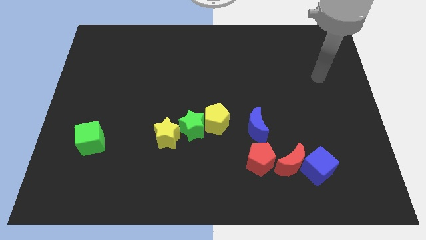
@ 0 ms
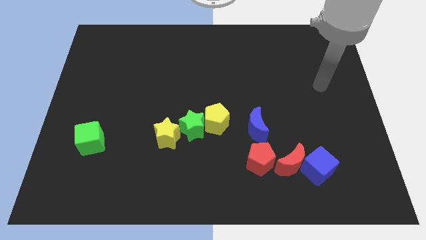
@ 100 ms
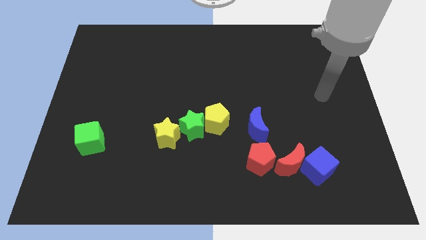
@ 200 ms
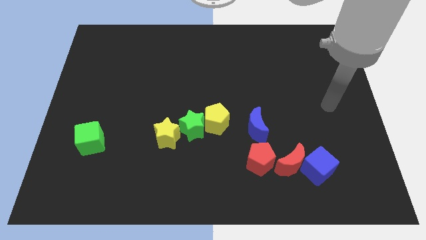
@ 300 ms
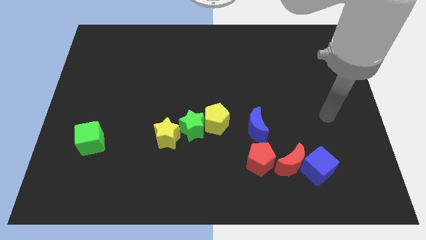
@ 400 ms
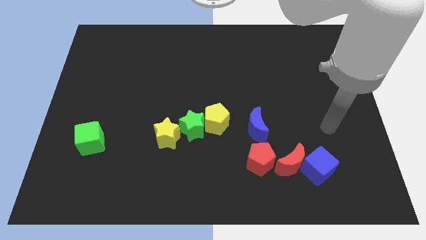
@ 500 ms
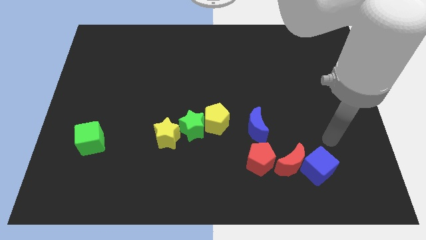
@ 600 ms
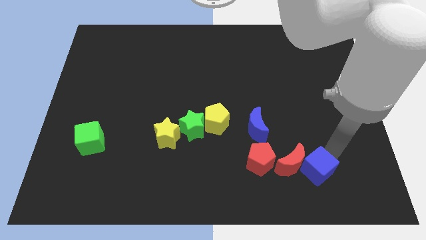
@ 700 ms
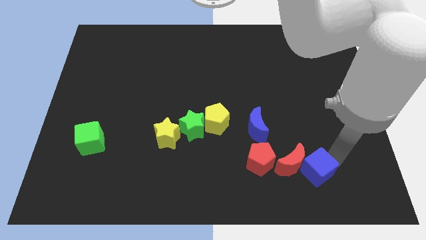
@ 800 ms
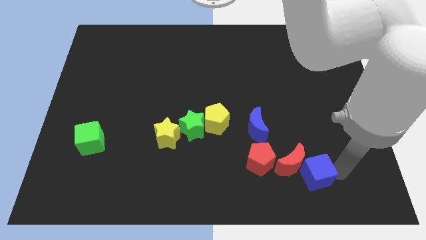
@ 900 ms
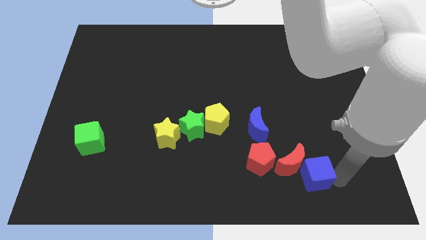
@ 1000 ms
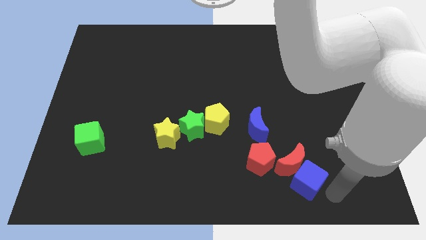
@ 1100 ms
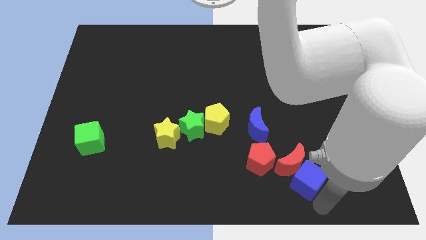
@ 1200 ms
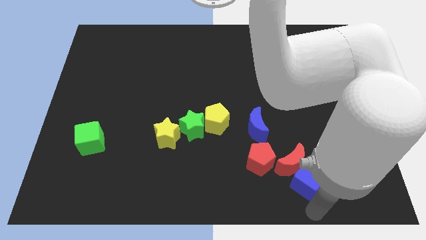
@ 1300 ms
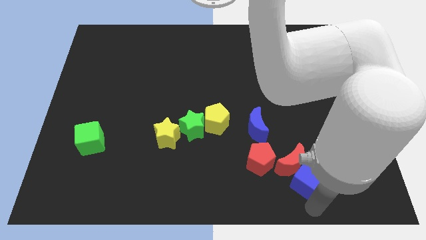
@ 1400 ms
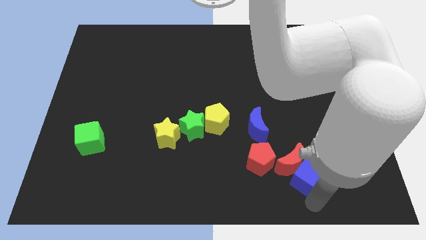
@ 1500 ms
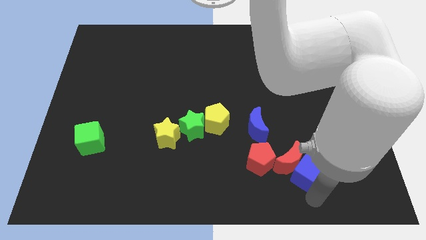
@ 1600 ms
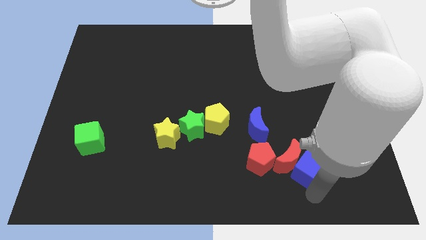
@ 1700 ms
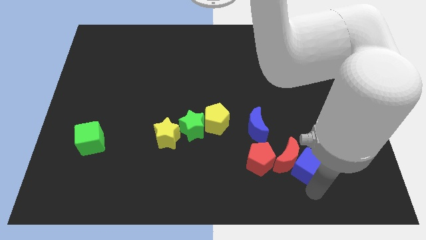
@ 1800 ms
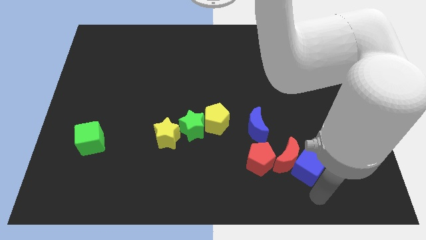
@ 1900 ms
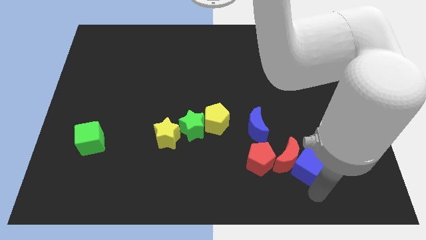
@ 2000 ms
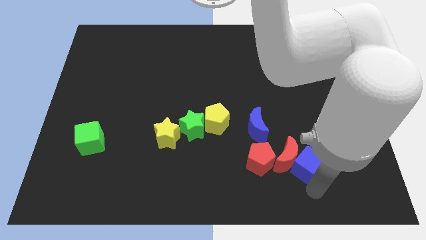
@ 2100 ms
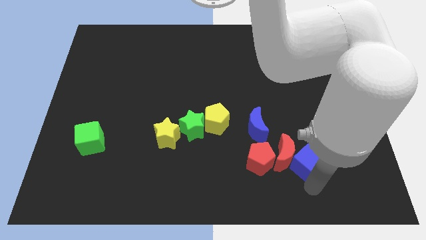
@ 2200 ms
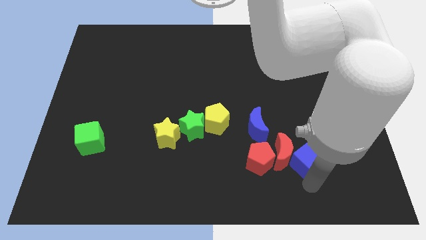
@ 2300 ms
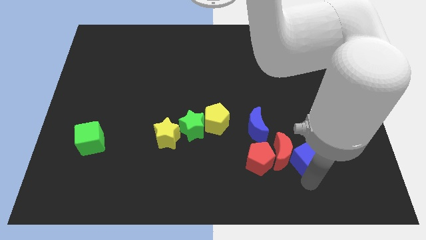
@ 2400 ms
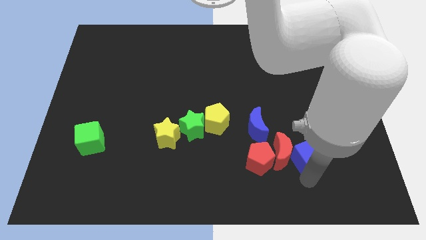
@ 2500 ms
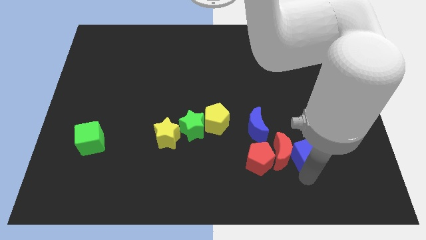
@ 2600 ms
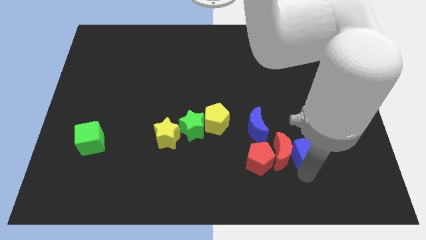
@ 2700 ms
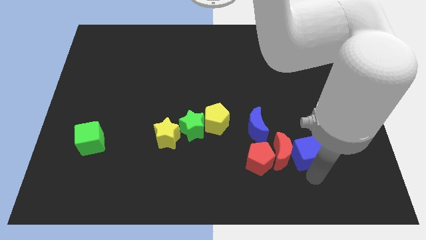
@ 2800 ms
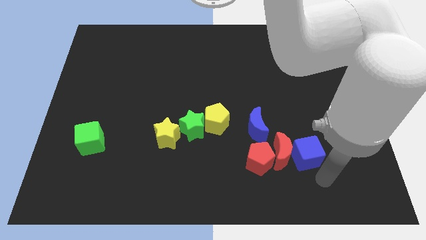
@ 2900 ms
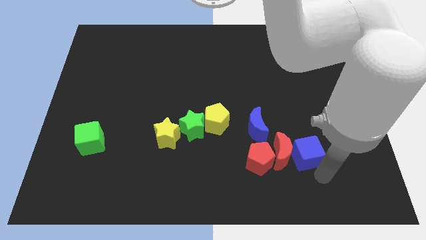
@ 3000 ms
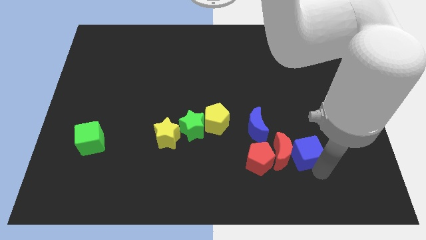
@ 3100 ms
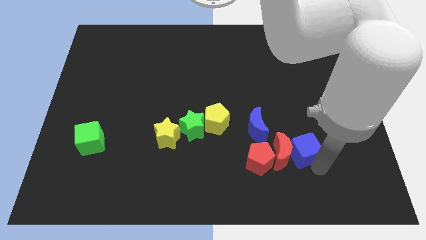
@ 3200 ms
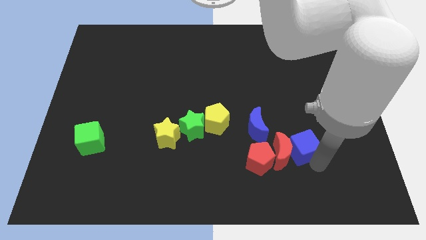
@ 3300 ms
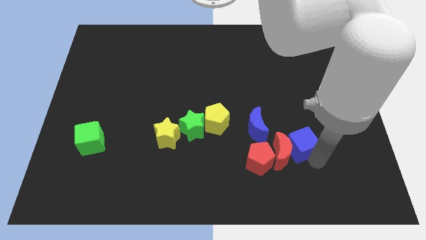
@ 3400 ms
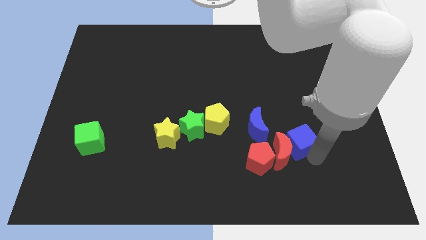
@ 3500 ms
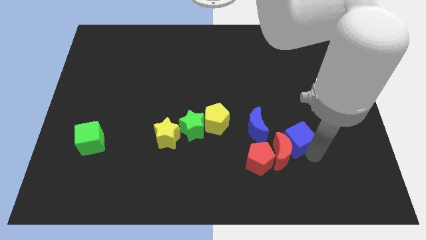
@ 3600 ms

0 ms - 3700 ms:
push the blue cube a bit up and then to the left

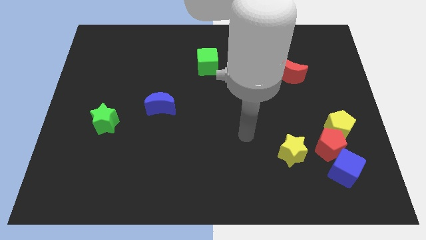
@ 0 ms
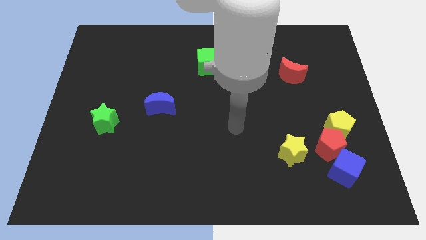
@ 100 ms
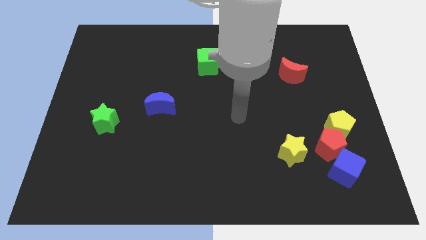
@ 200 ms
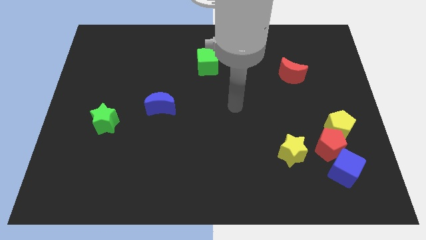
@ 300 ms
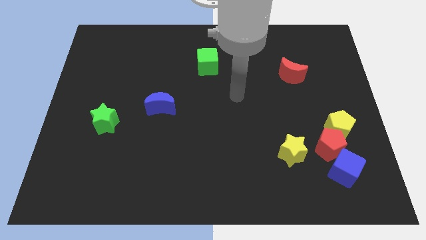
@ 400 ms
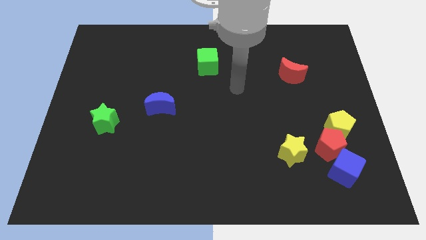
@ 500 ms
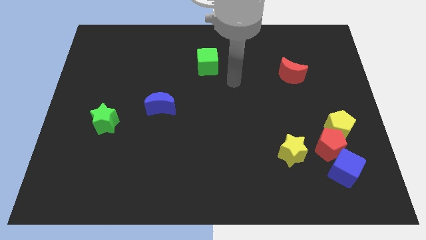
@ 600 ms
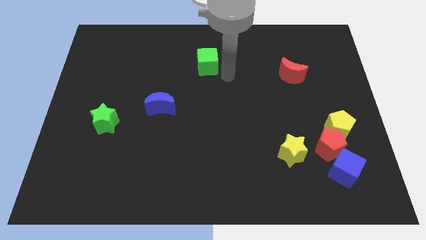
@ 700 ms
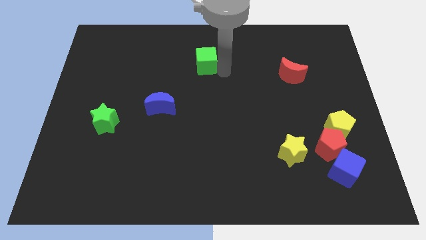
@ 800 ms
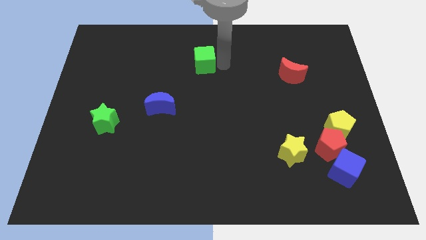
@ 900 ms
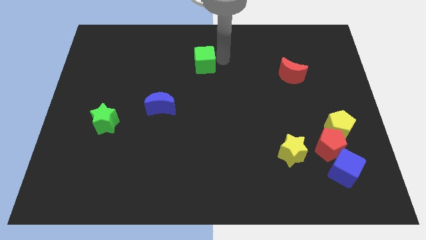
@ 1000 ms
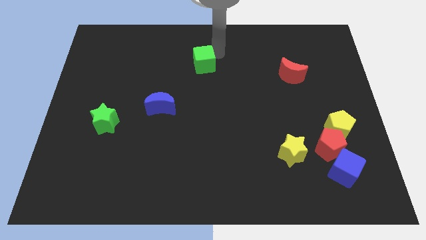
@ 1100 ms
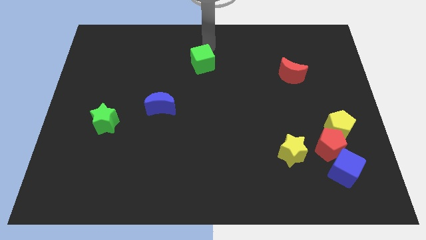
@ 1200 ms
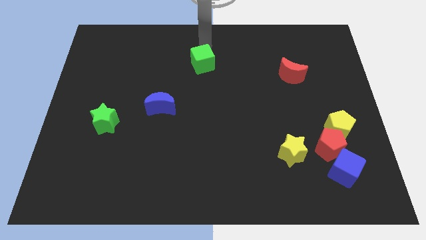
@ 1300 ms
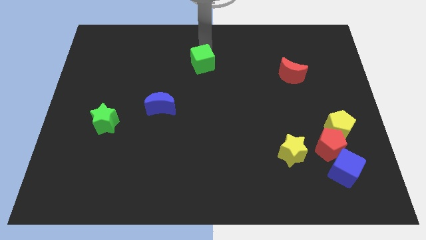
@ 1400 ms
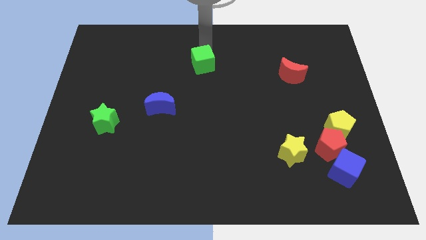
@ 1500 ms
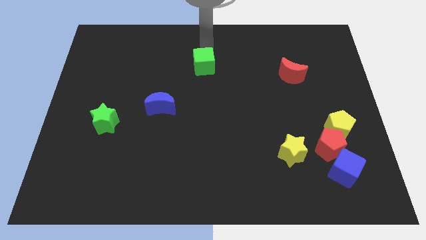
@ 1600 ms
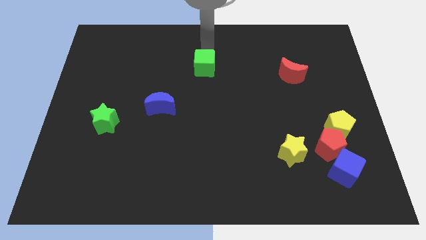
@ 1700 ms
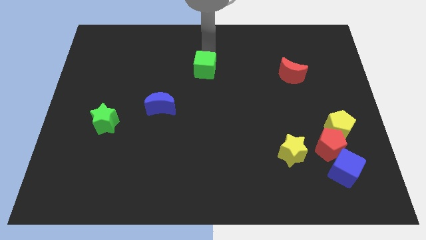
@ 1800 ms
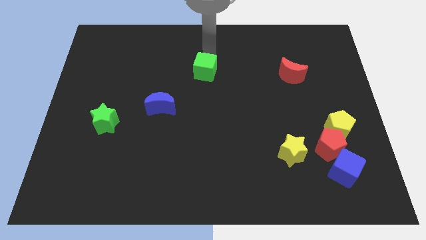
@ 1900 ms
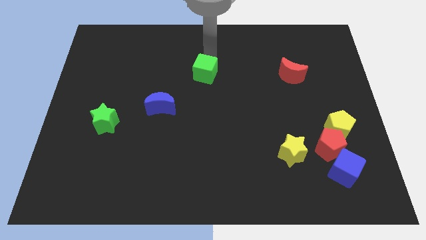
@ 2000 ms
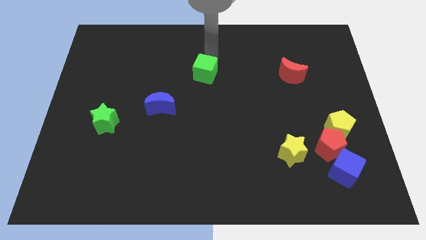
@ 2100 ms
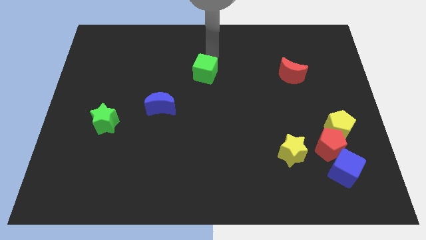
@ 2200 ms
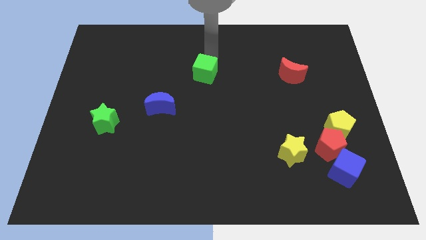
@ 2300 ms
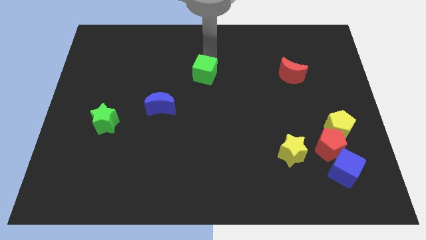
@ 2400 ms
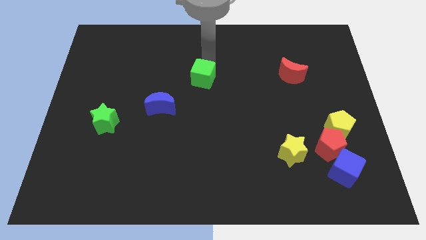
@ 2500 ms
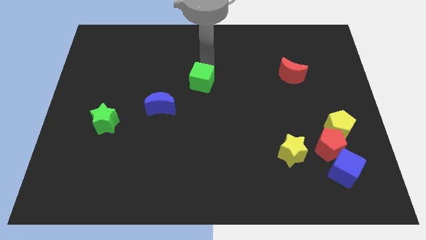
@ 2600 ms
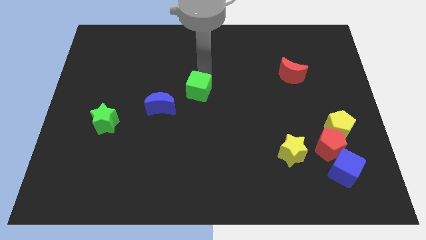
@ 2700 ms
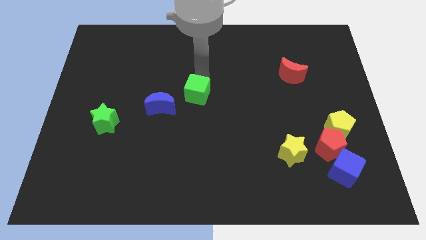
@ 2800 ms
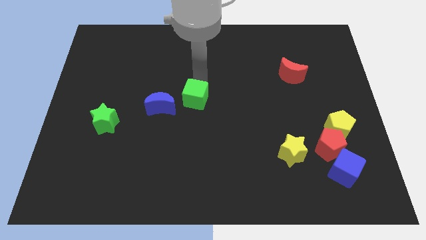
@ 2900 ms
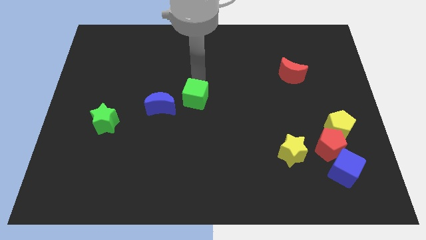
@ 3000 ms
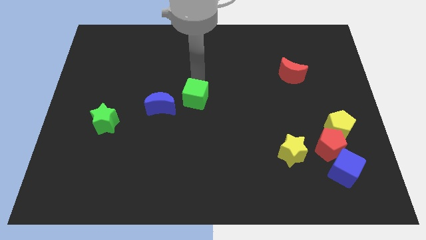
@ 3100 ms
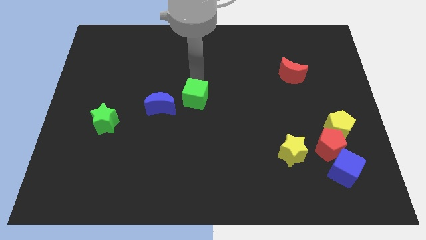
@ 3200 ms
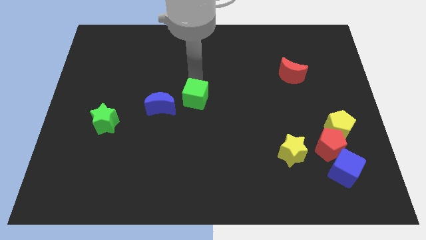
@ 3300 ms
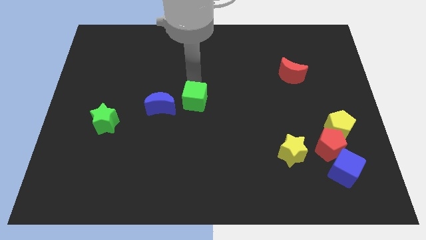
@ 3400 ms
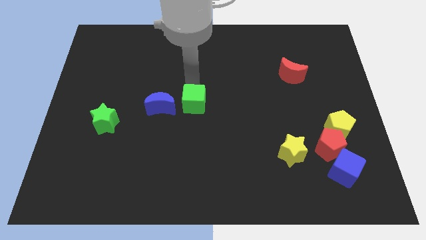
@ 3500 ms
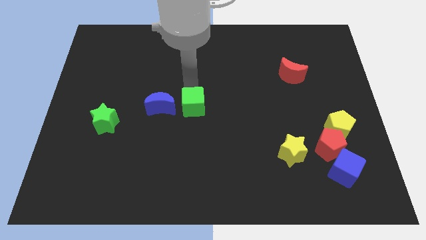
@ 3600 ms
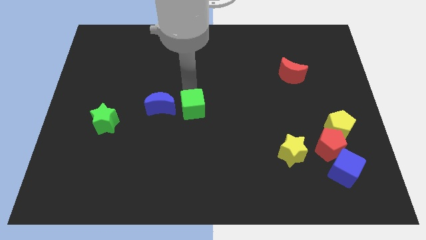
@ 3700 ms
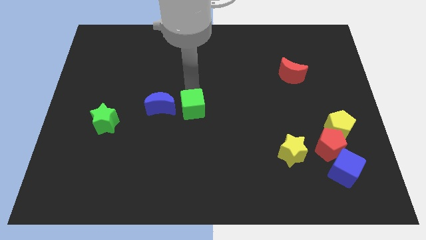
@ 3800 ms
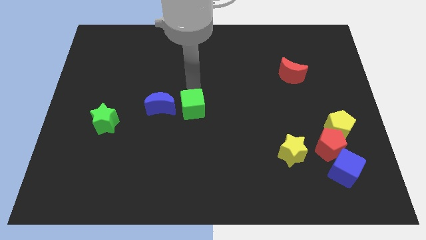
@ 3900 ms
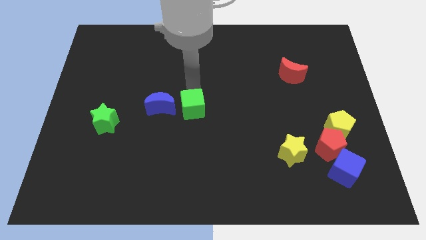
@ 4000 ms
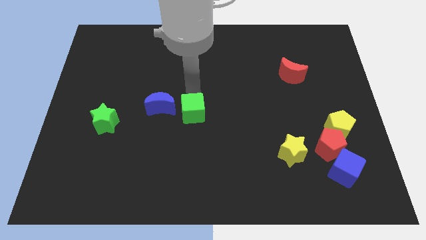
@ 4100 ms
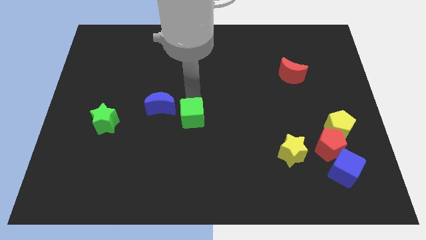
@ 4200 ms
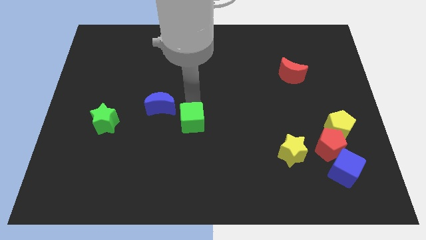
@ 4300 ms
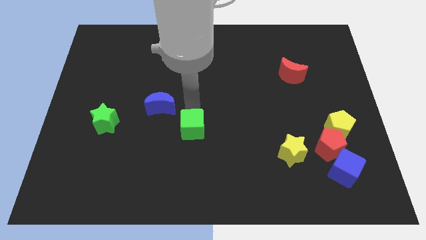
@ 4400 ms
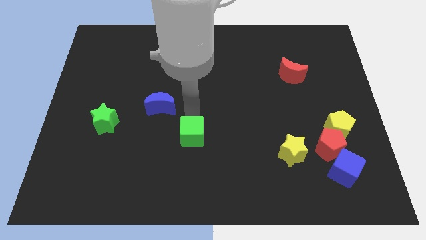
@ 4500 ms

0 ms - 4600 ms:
move the green cube down
